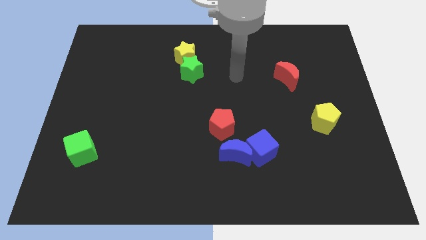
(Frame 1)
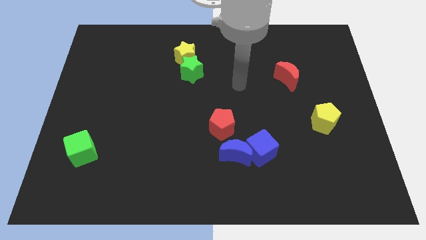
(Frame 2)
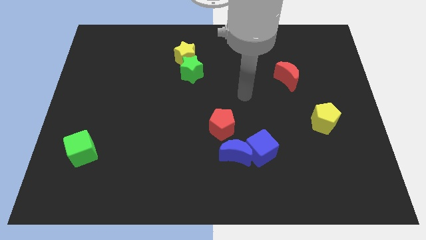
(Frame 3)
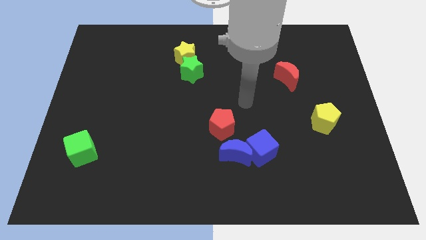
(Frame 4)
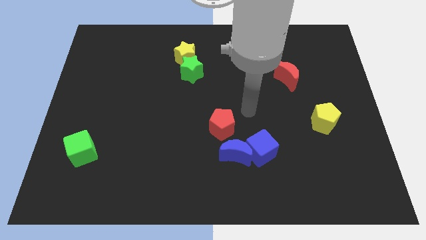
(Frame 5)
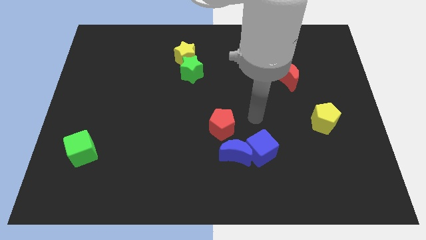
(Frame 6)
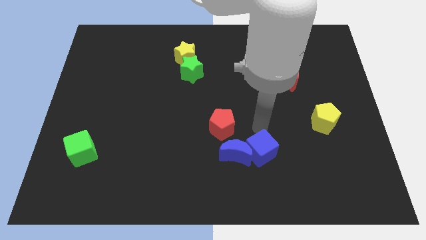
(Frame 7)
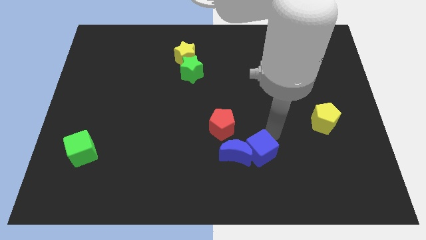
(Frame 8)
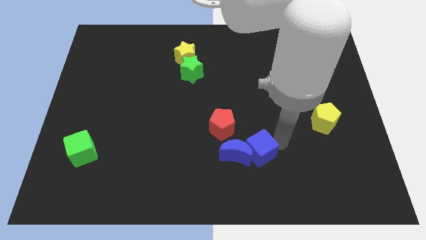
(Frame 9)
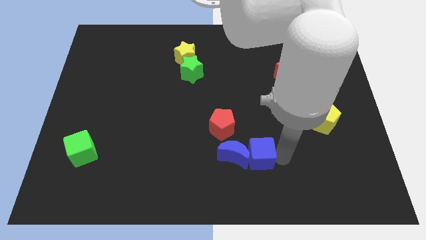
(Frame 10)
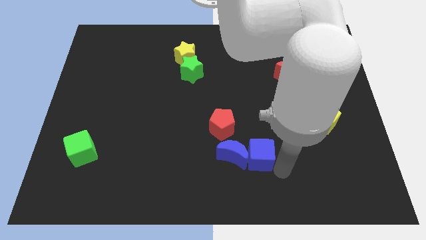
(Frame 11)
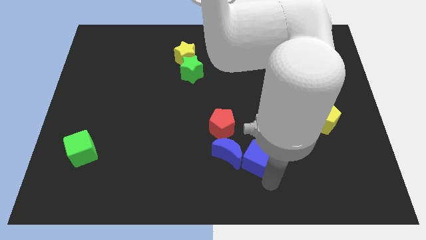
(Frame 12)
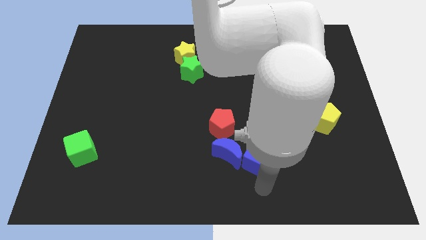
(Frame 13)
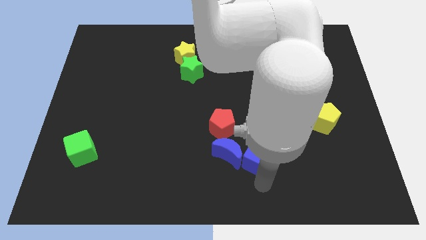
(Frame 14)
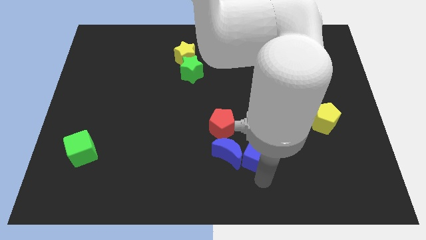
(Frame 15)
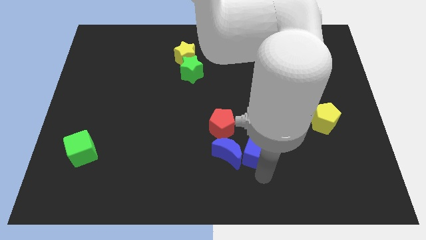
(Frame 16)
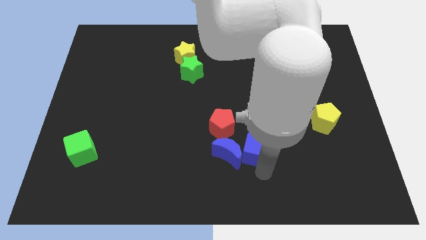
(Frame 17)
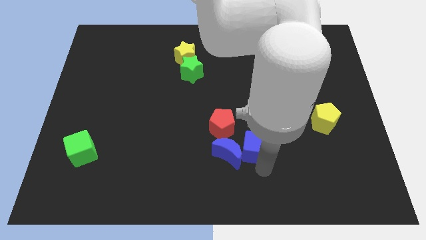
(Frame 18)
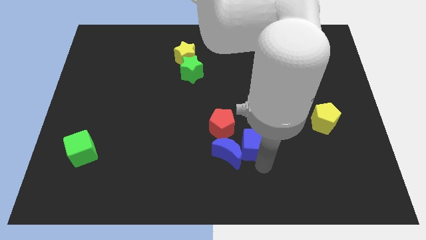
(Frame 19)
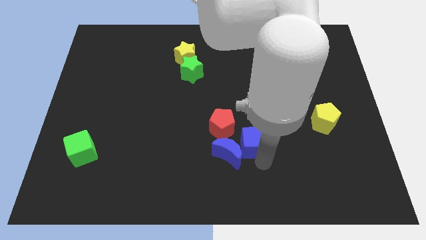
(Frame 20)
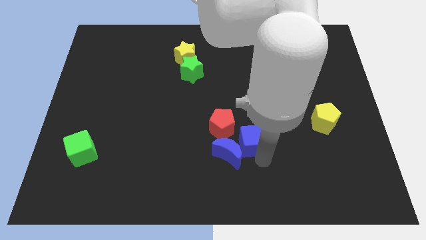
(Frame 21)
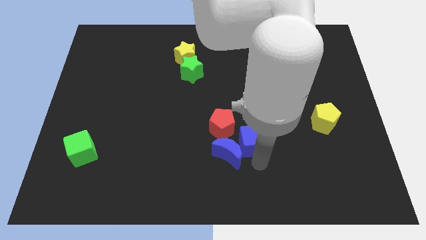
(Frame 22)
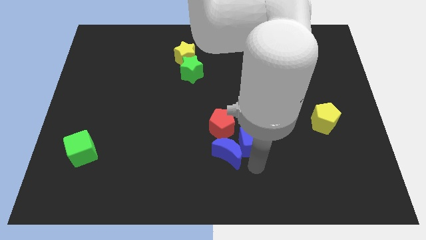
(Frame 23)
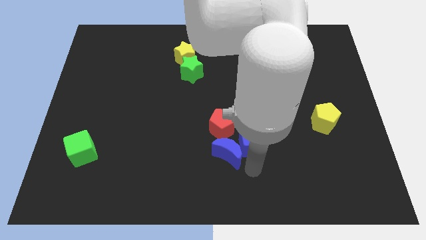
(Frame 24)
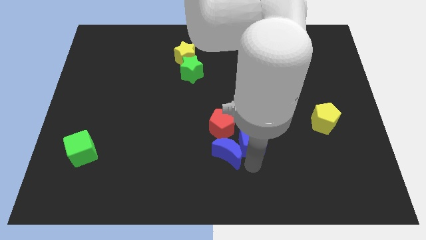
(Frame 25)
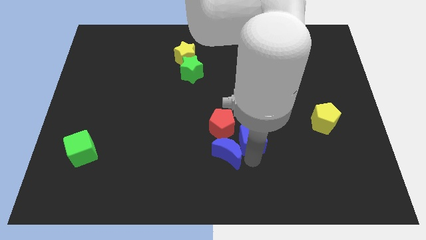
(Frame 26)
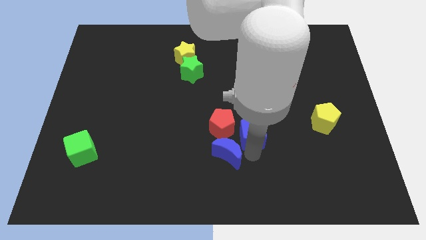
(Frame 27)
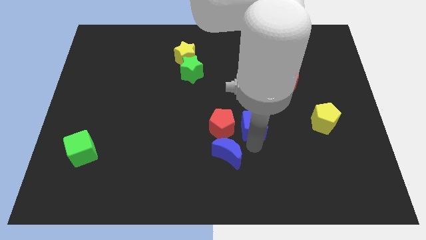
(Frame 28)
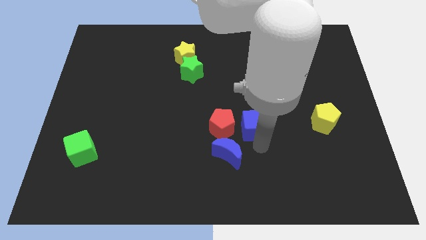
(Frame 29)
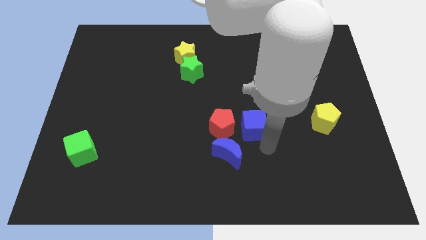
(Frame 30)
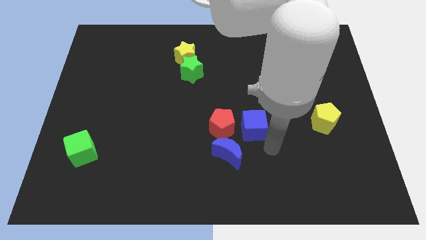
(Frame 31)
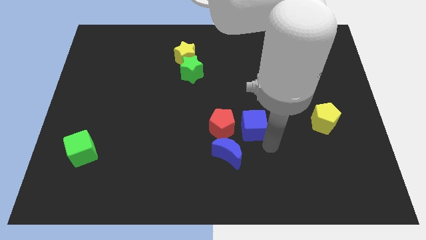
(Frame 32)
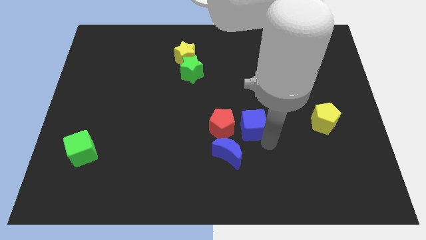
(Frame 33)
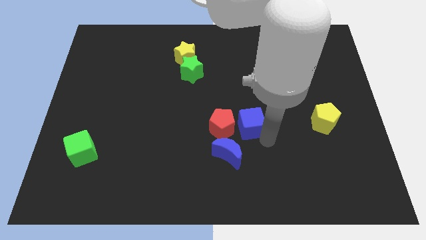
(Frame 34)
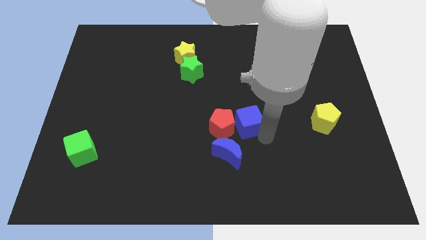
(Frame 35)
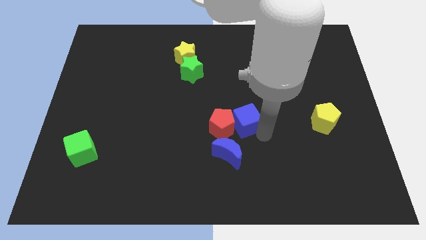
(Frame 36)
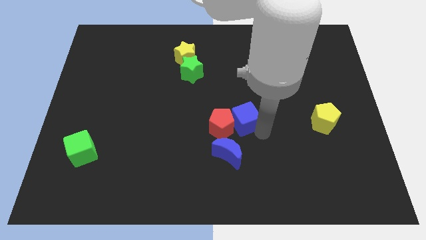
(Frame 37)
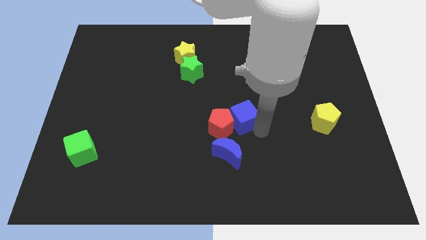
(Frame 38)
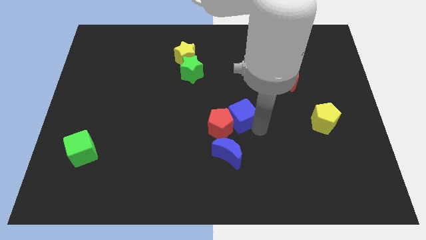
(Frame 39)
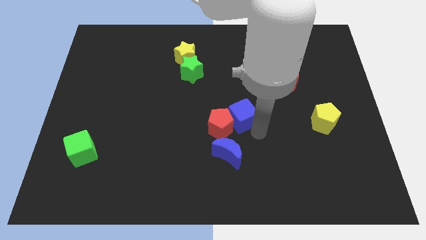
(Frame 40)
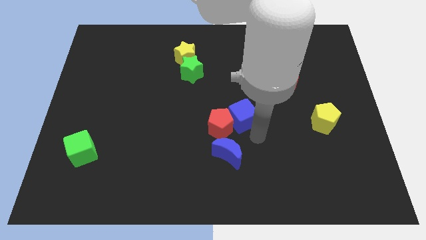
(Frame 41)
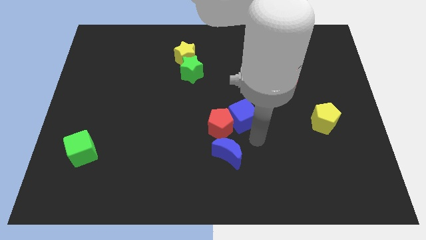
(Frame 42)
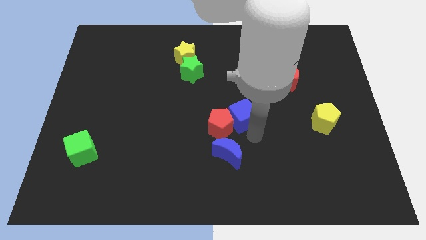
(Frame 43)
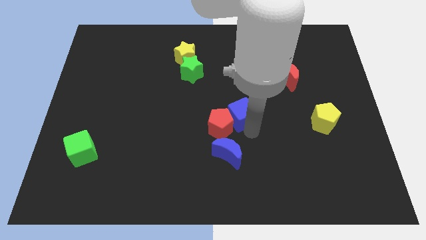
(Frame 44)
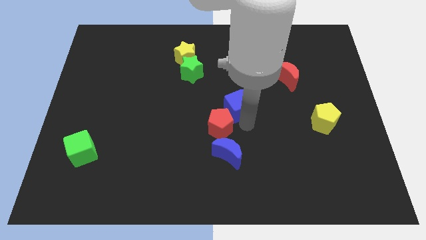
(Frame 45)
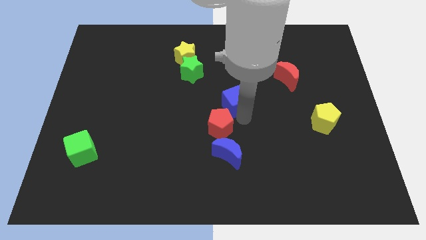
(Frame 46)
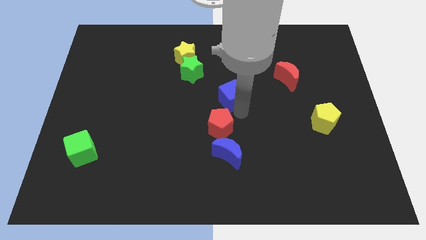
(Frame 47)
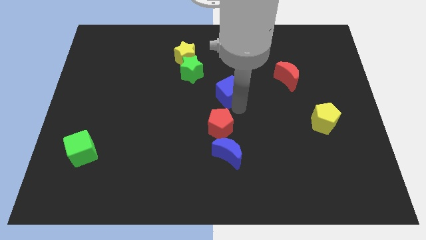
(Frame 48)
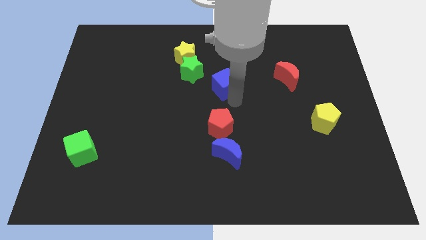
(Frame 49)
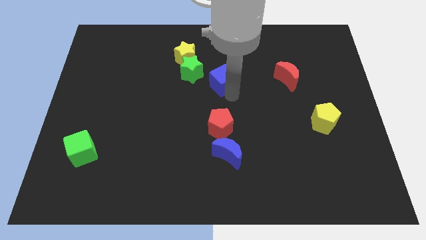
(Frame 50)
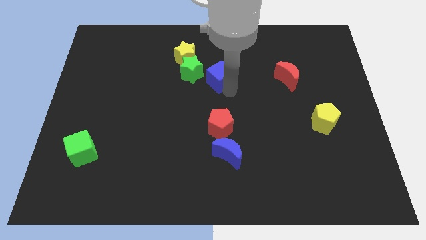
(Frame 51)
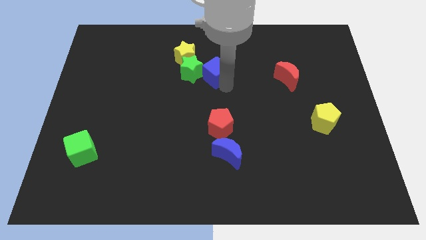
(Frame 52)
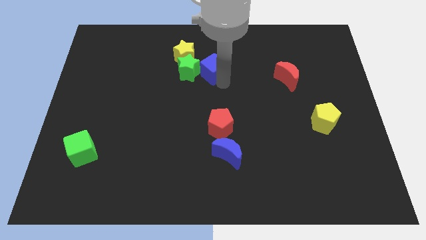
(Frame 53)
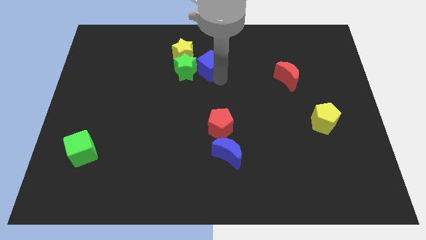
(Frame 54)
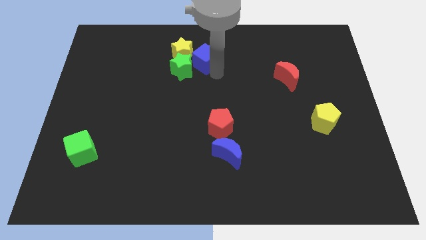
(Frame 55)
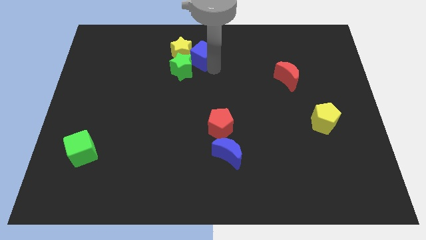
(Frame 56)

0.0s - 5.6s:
put the blue cube to the yellow star
